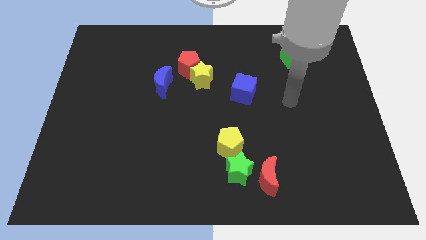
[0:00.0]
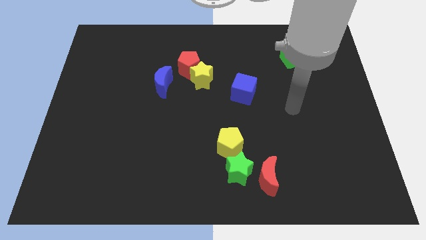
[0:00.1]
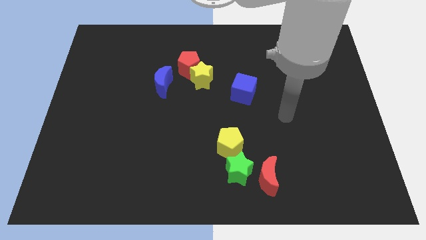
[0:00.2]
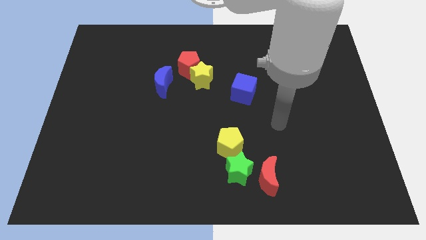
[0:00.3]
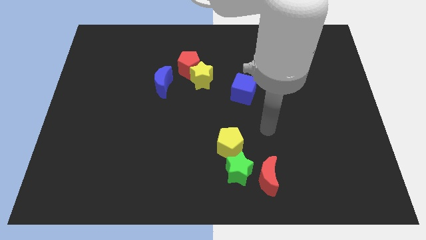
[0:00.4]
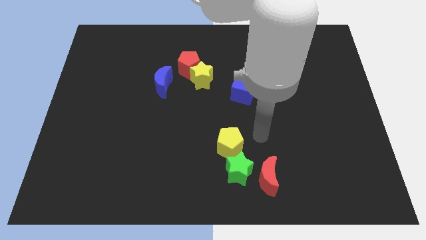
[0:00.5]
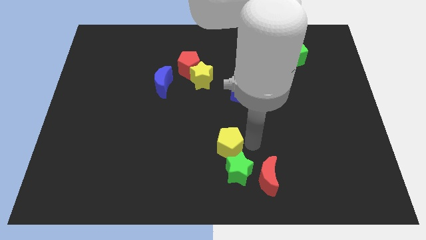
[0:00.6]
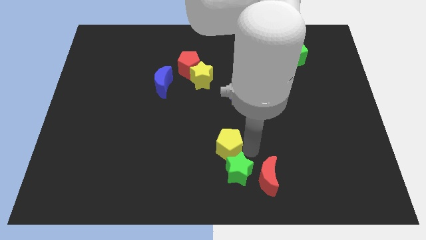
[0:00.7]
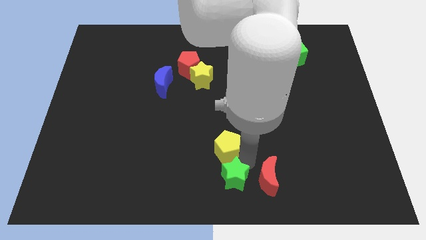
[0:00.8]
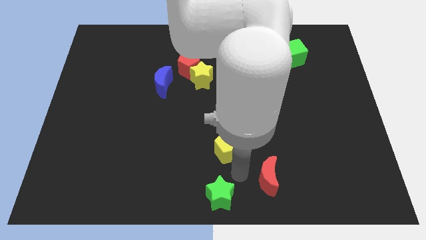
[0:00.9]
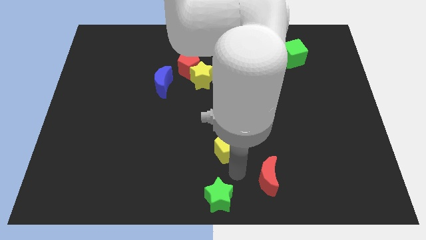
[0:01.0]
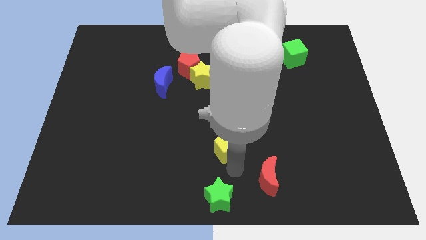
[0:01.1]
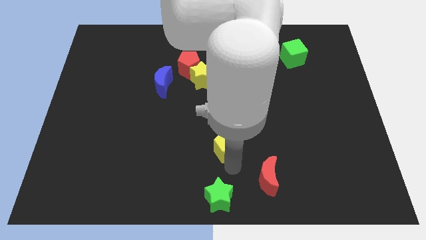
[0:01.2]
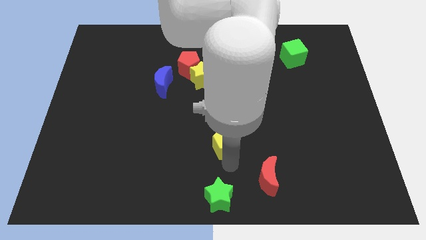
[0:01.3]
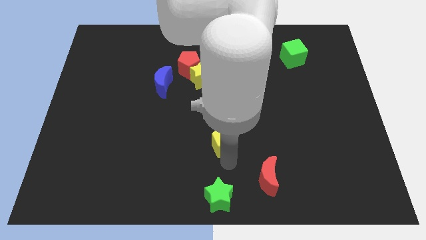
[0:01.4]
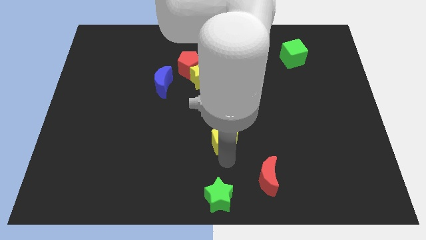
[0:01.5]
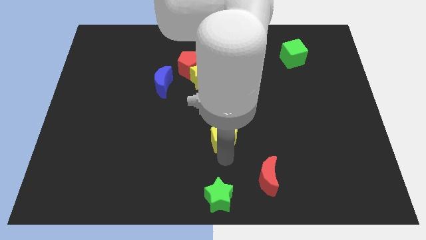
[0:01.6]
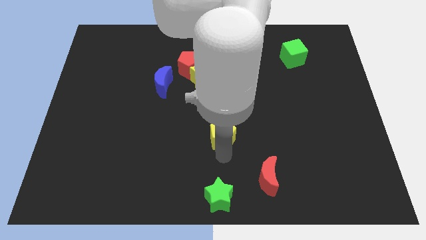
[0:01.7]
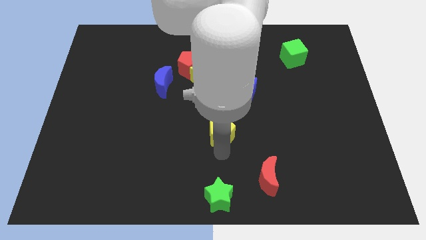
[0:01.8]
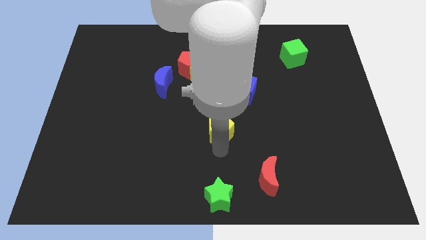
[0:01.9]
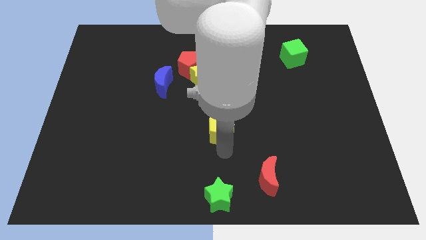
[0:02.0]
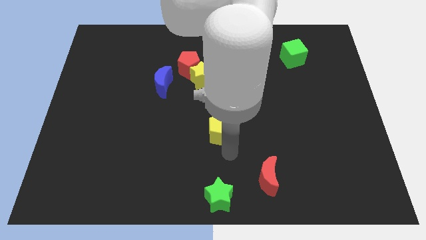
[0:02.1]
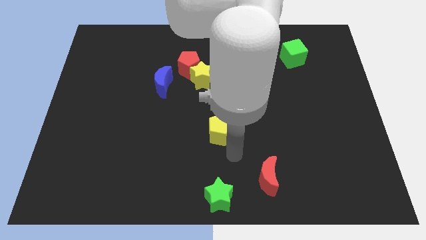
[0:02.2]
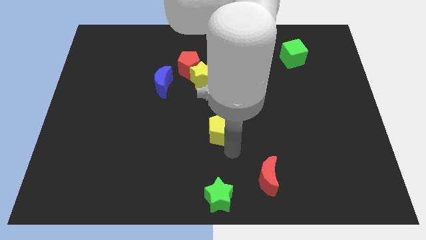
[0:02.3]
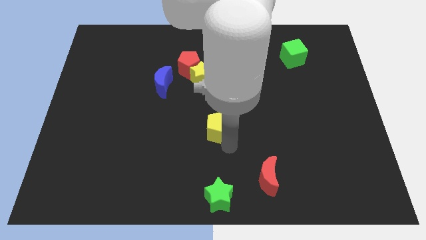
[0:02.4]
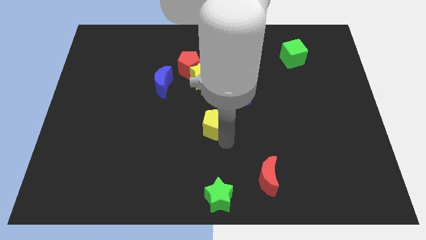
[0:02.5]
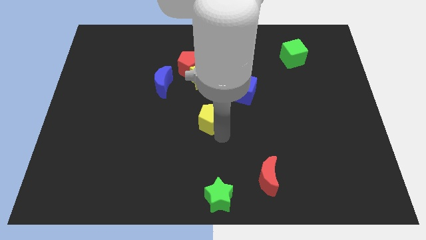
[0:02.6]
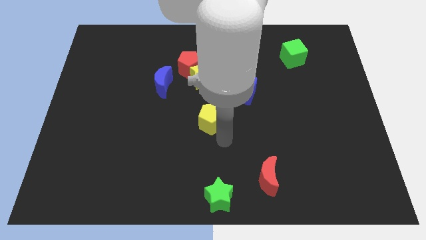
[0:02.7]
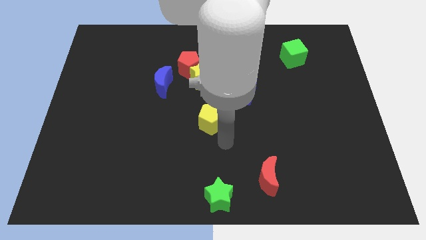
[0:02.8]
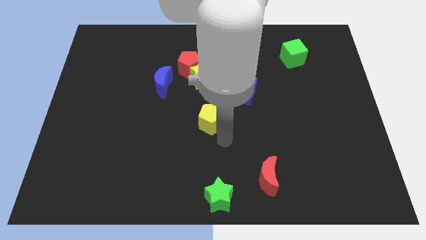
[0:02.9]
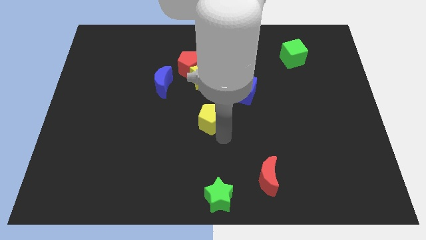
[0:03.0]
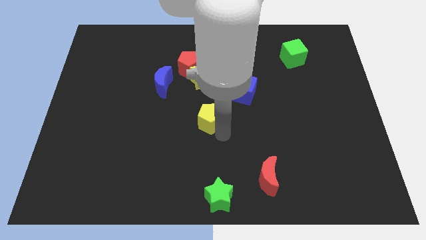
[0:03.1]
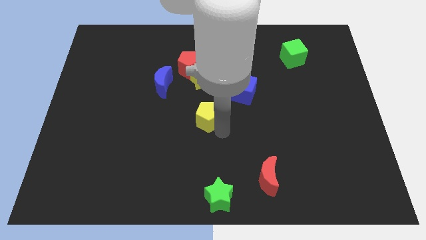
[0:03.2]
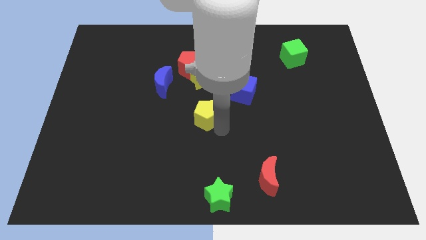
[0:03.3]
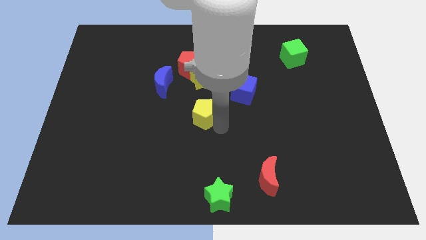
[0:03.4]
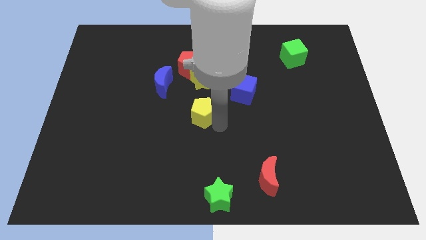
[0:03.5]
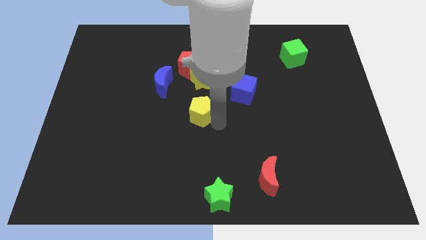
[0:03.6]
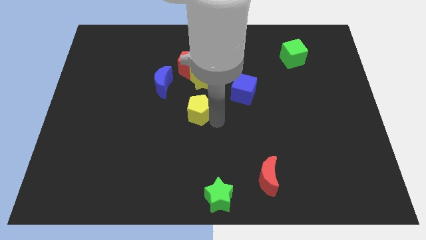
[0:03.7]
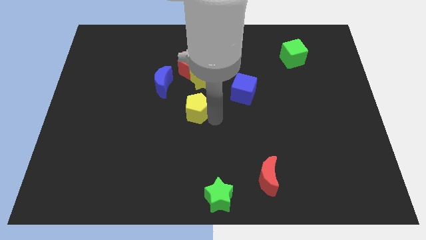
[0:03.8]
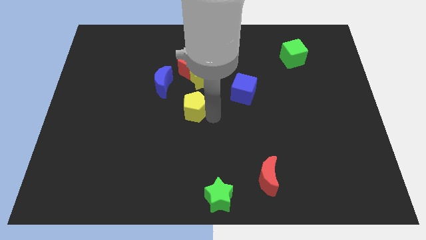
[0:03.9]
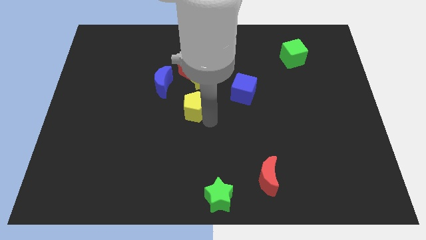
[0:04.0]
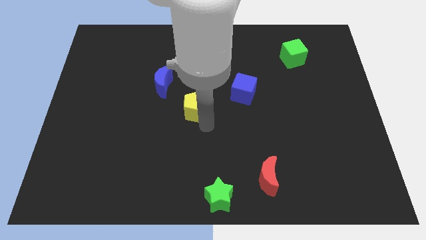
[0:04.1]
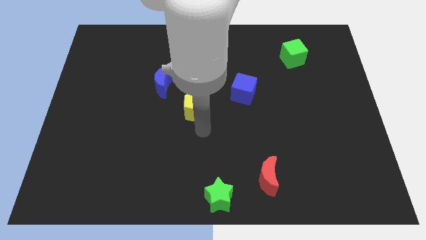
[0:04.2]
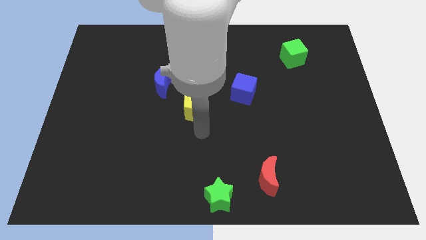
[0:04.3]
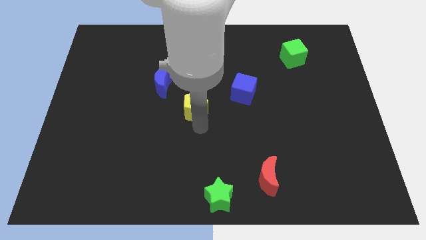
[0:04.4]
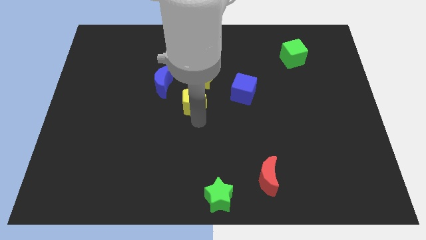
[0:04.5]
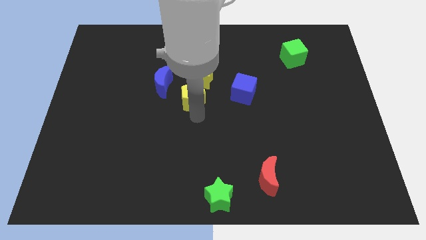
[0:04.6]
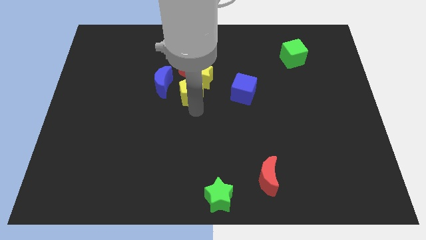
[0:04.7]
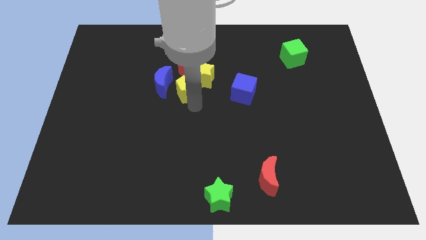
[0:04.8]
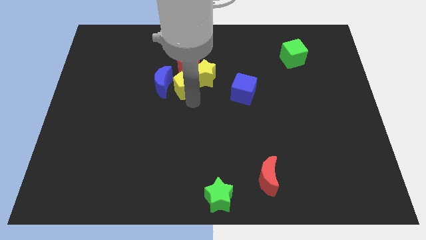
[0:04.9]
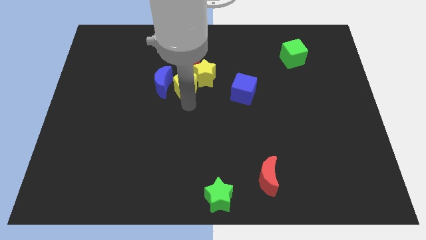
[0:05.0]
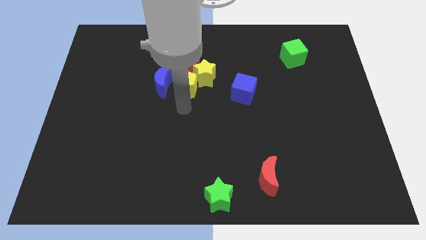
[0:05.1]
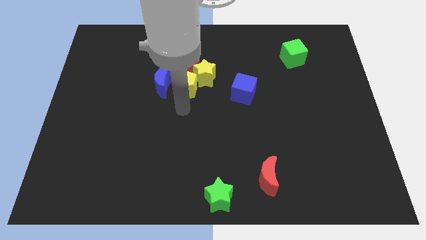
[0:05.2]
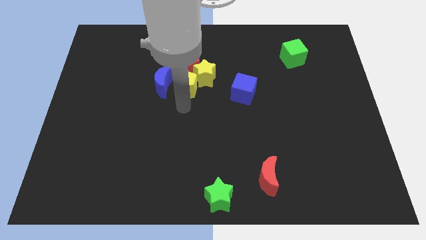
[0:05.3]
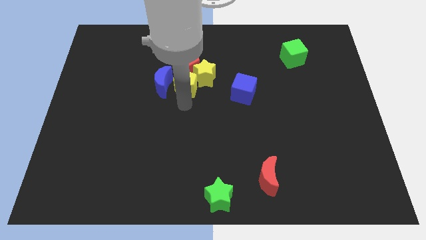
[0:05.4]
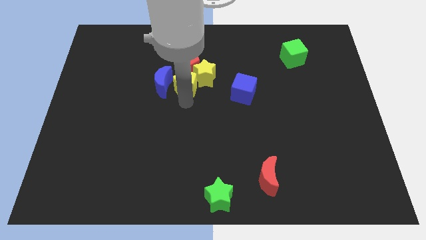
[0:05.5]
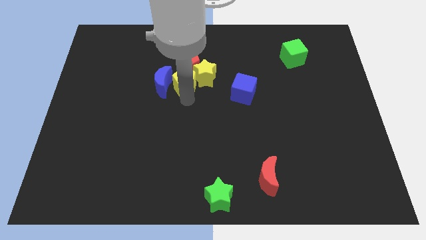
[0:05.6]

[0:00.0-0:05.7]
move the yellow pentagon towards the red pentagon

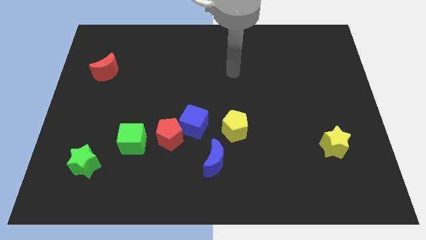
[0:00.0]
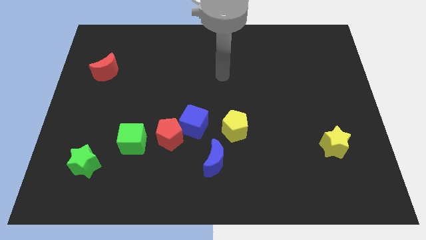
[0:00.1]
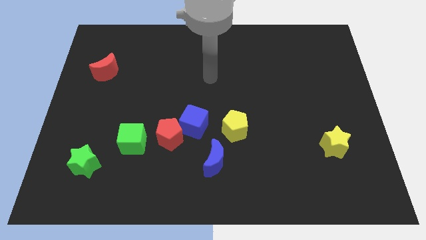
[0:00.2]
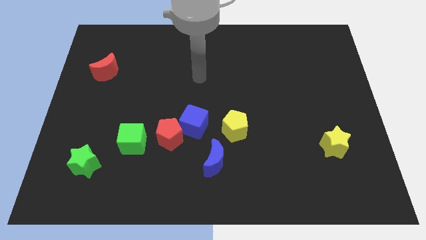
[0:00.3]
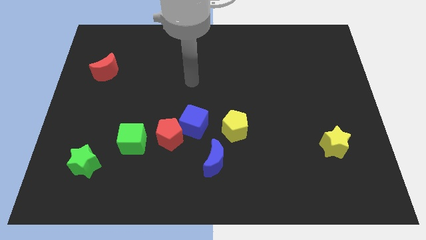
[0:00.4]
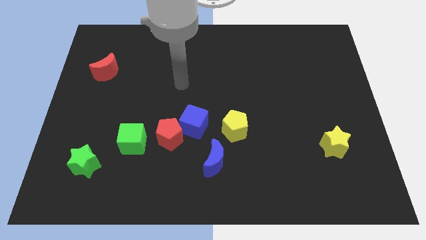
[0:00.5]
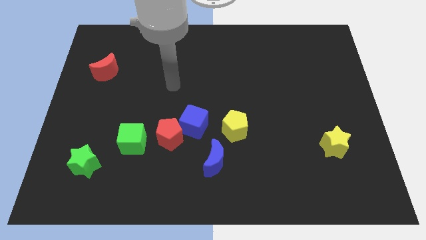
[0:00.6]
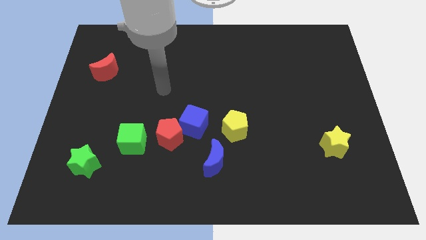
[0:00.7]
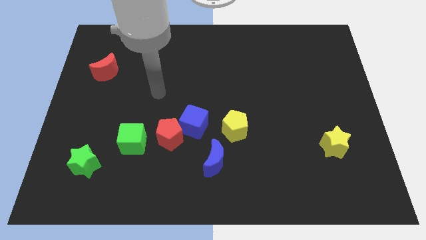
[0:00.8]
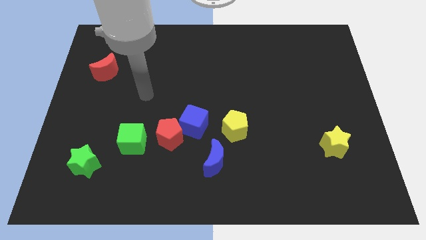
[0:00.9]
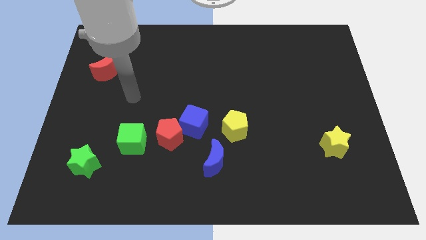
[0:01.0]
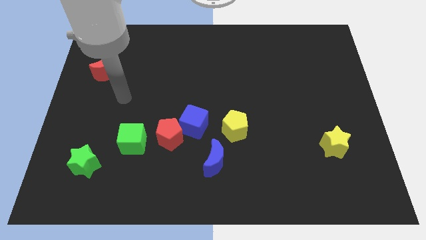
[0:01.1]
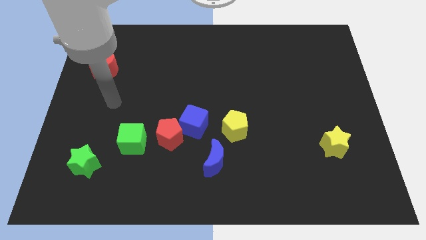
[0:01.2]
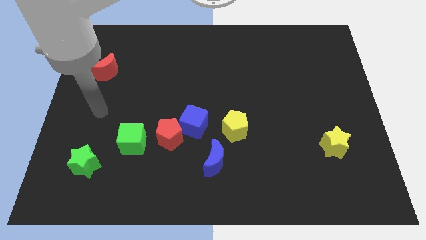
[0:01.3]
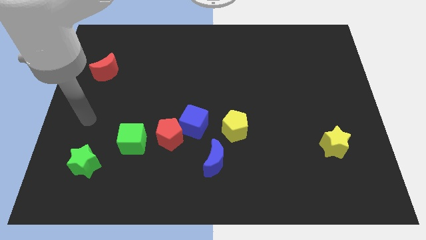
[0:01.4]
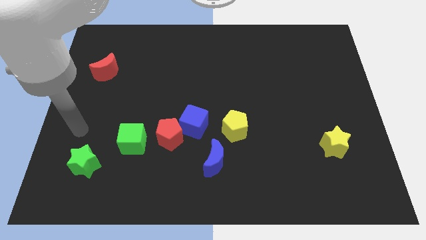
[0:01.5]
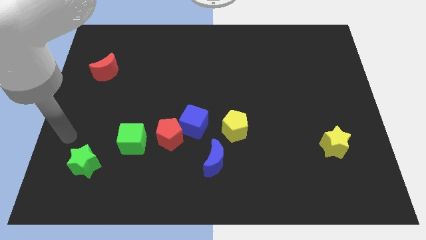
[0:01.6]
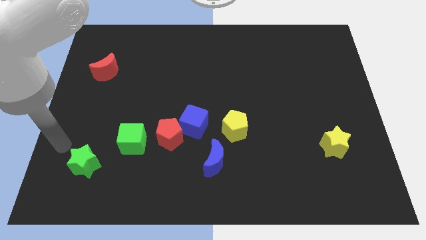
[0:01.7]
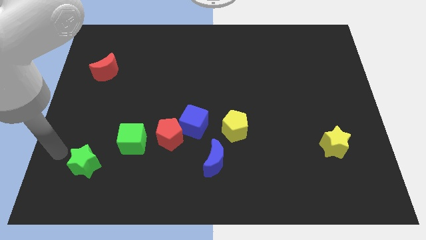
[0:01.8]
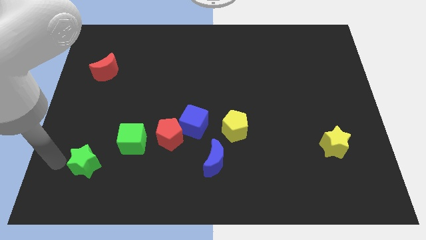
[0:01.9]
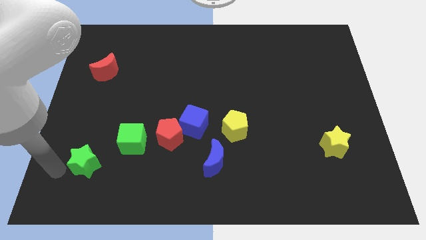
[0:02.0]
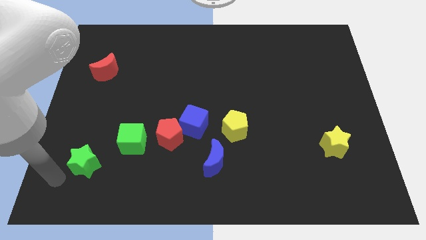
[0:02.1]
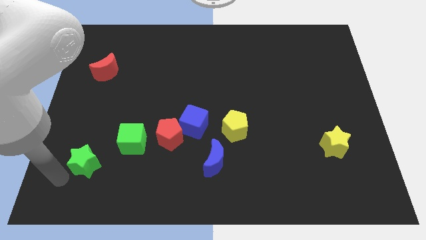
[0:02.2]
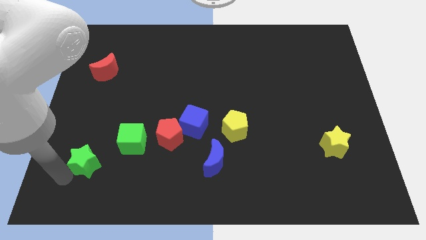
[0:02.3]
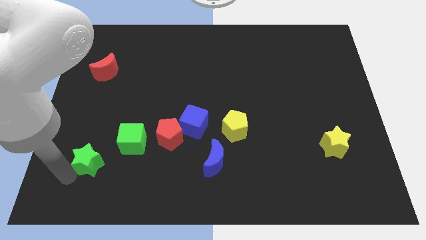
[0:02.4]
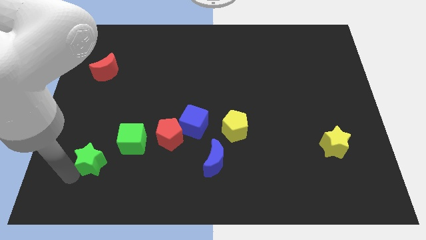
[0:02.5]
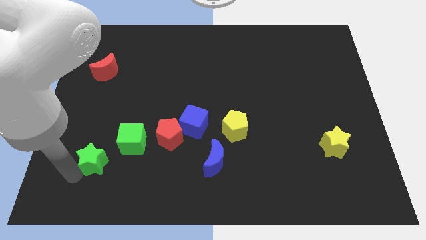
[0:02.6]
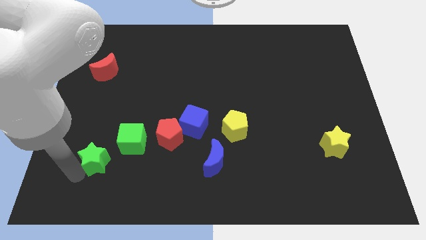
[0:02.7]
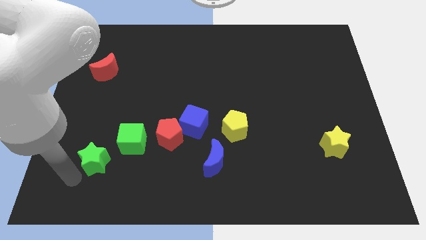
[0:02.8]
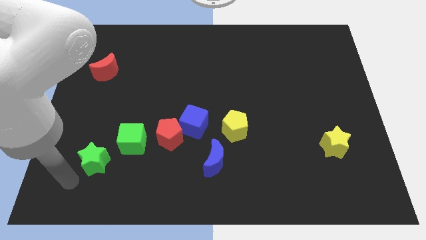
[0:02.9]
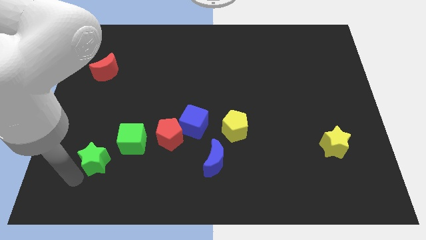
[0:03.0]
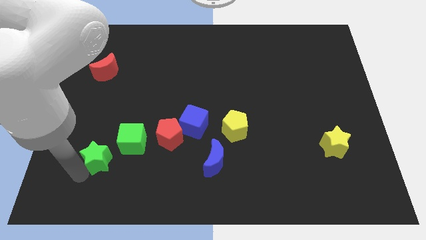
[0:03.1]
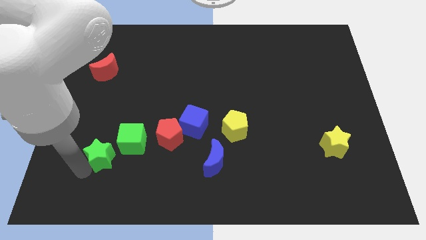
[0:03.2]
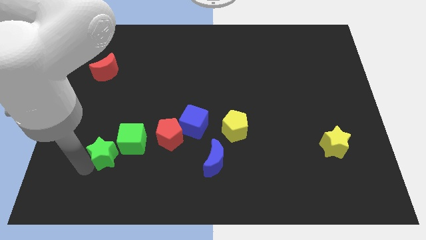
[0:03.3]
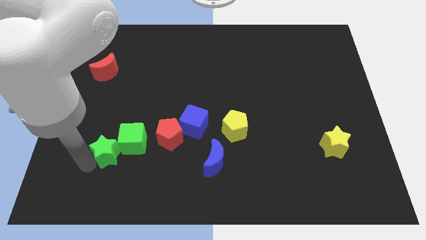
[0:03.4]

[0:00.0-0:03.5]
move the green star next to the green cube
